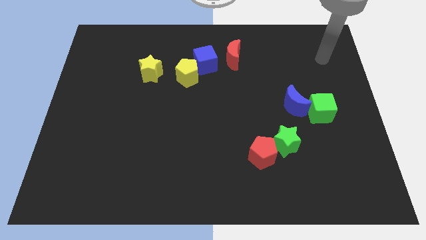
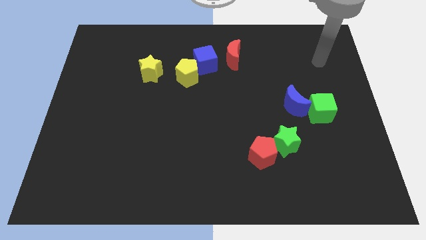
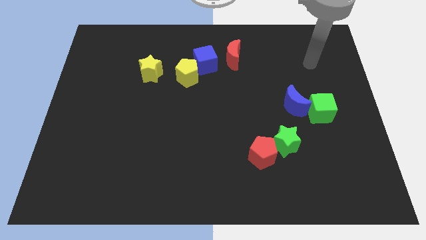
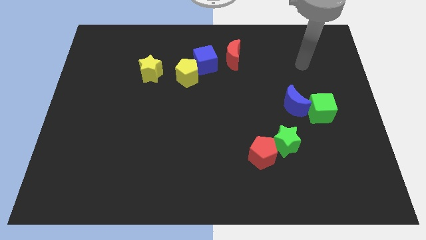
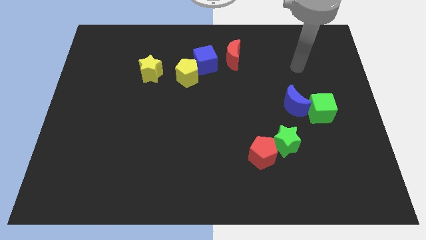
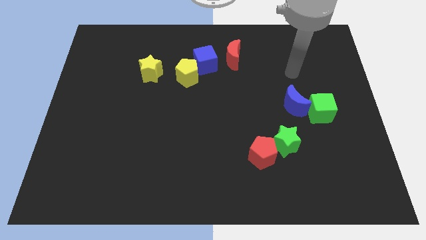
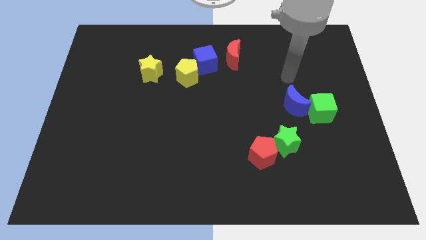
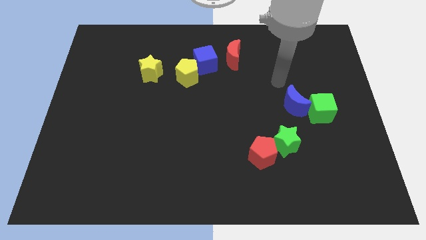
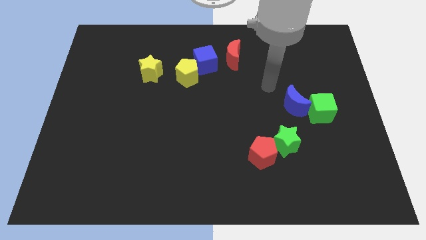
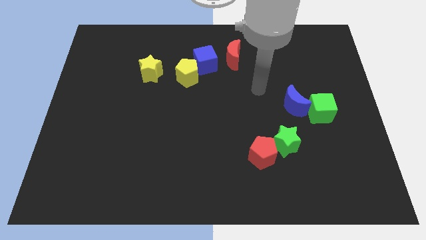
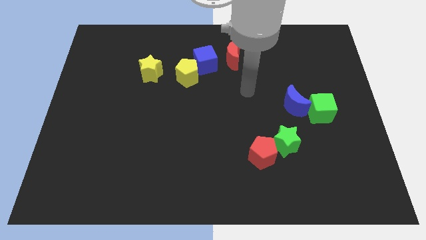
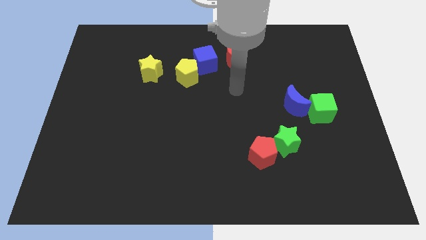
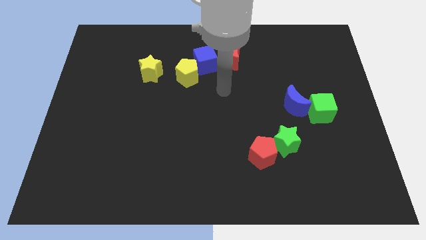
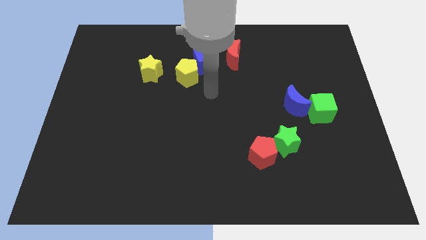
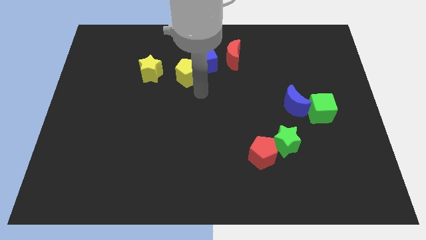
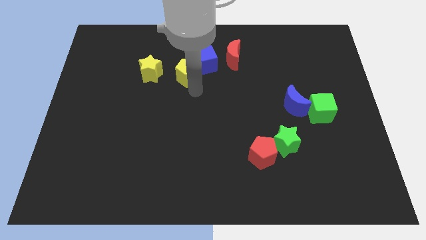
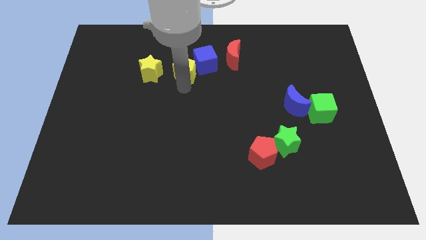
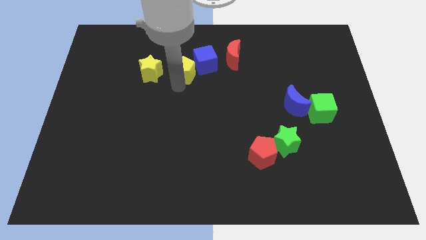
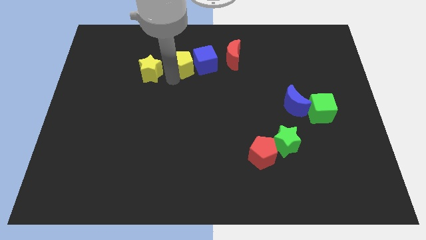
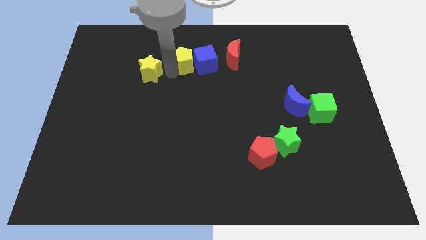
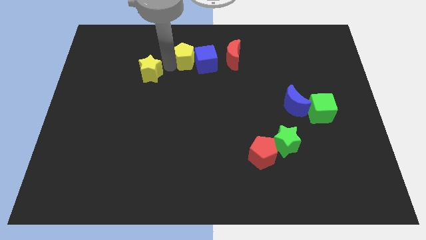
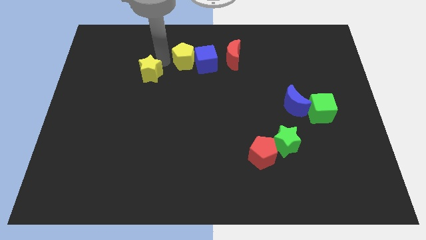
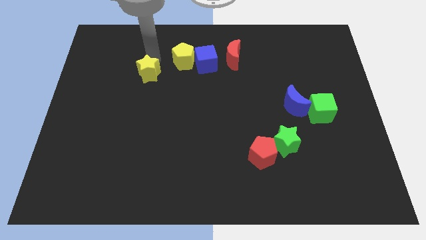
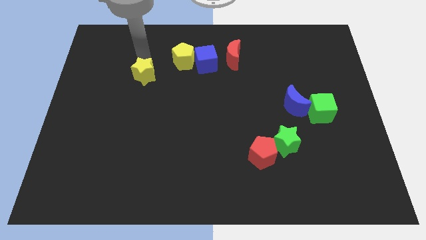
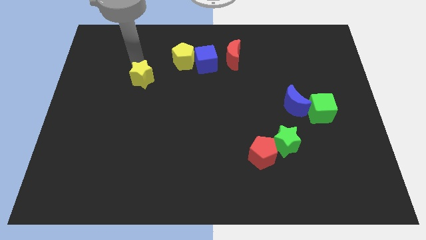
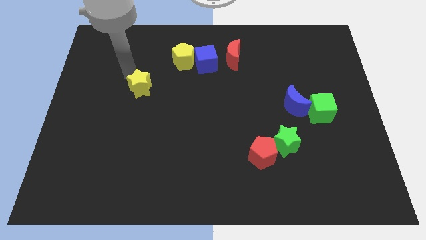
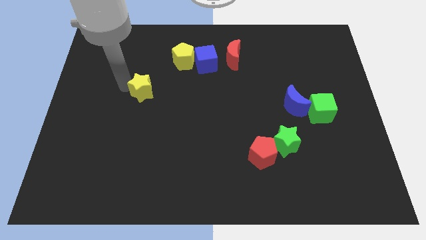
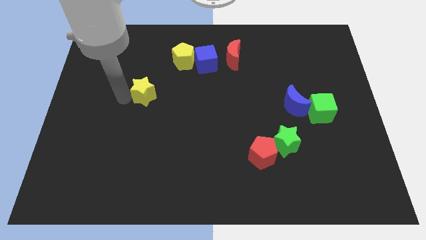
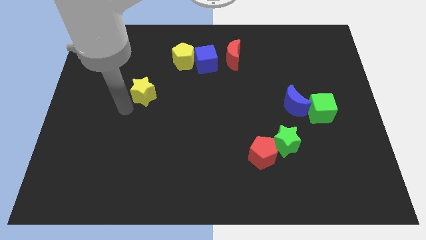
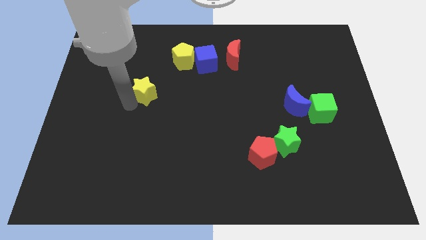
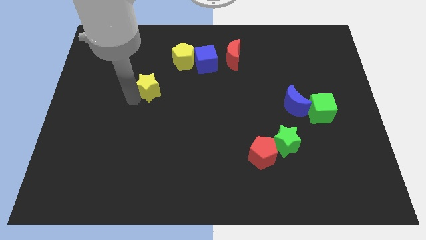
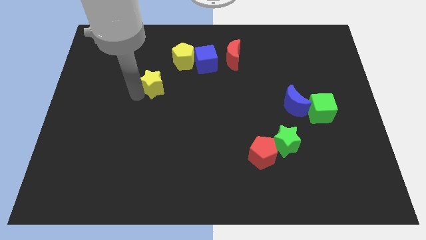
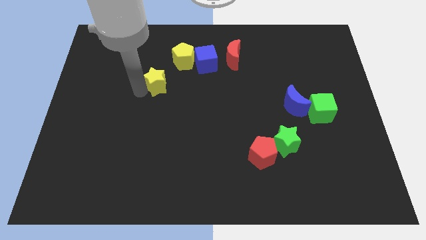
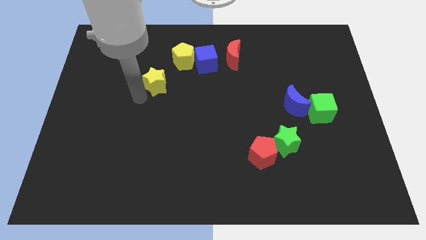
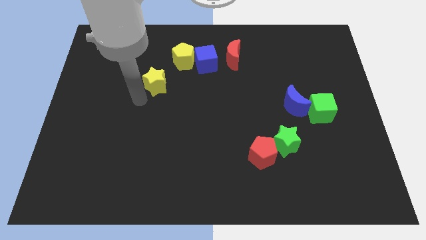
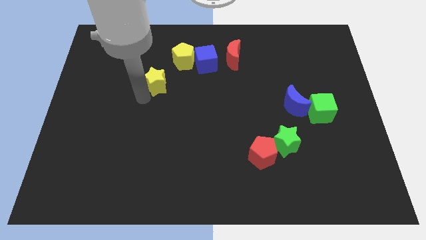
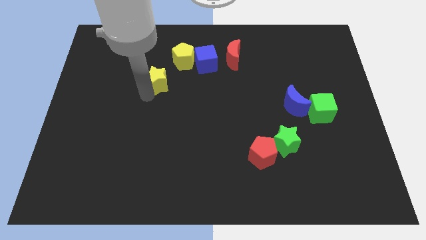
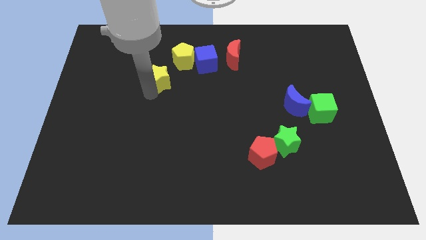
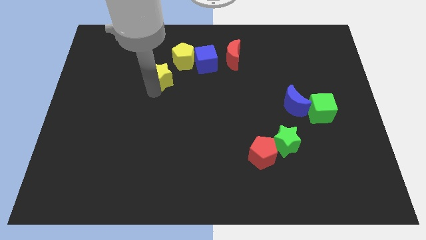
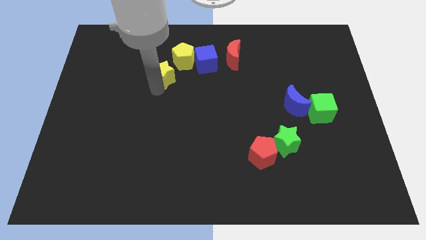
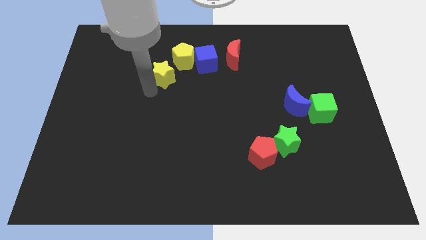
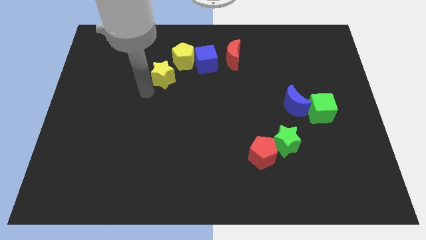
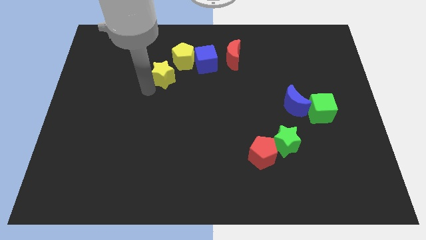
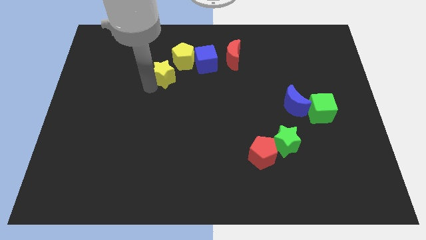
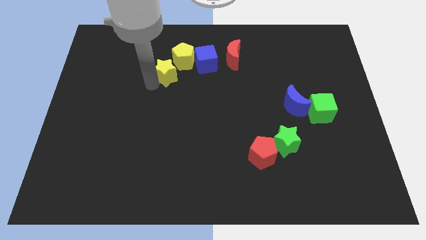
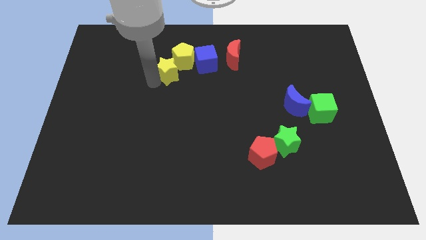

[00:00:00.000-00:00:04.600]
put the yellow star next to the yellow pentagon

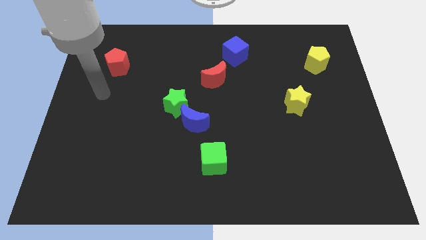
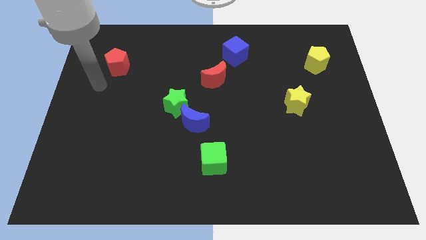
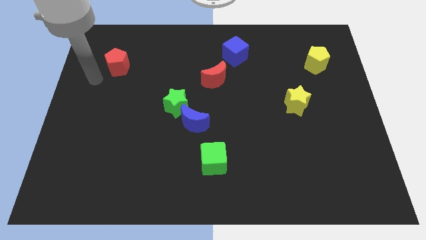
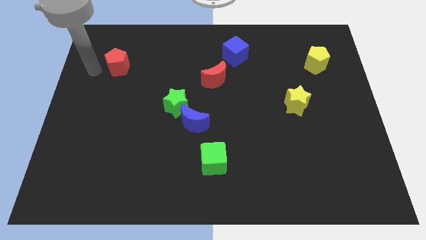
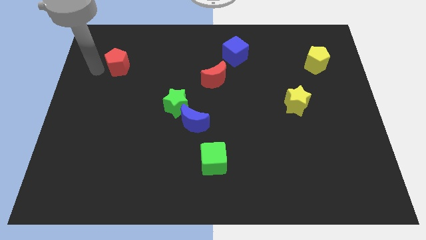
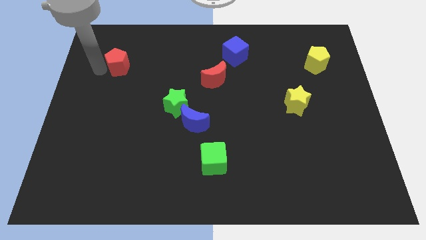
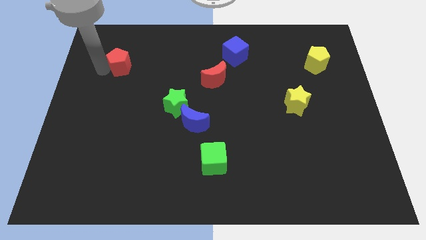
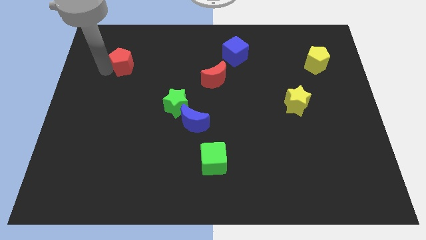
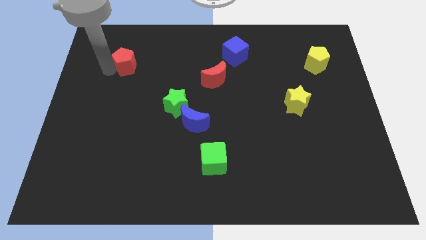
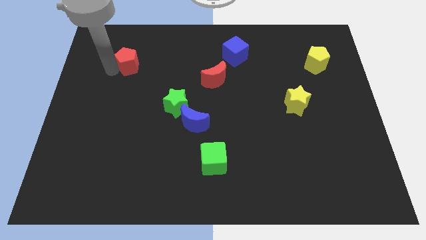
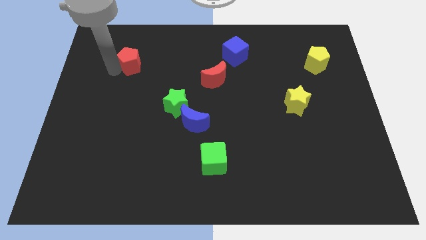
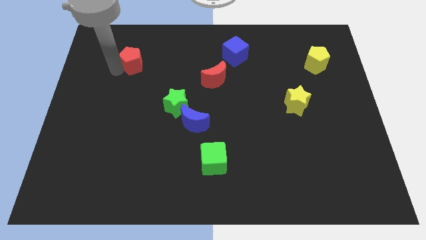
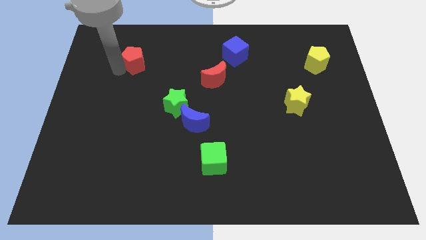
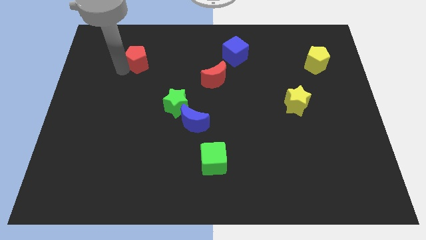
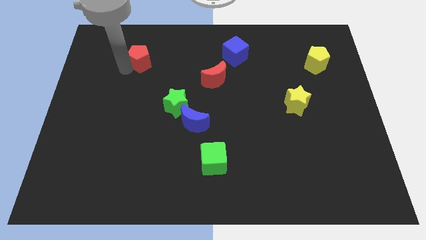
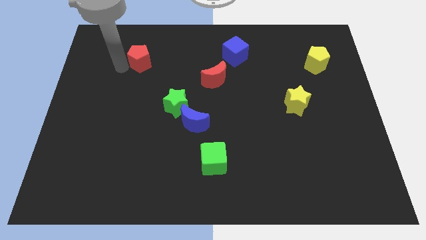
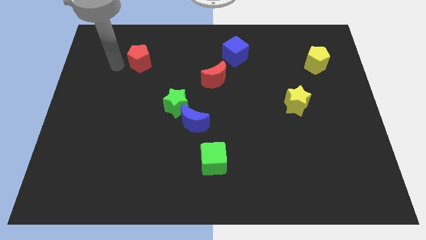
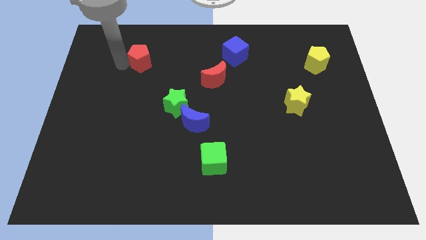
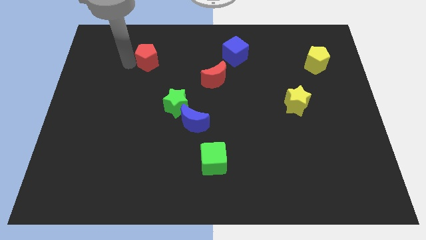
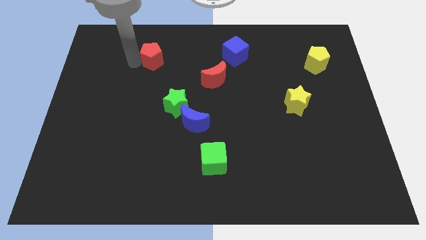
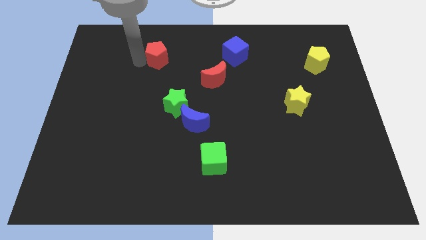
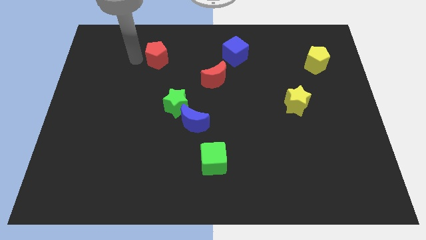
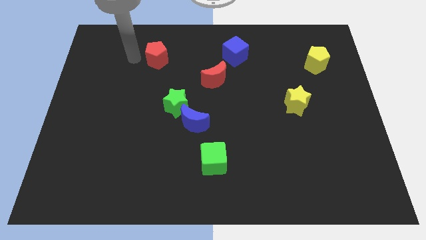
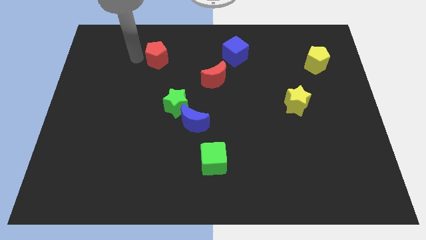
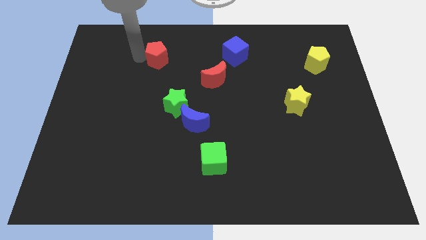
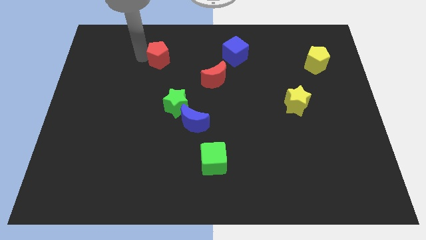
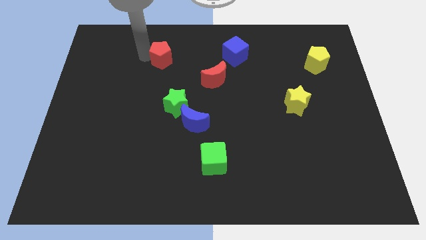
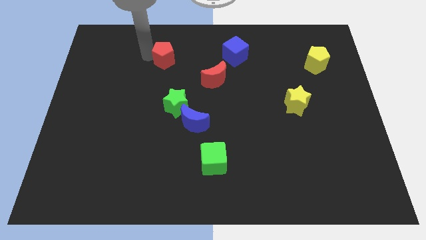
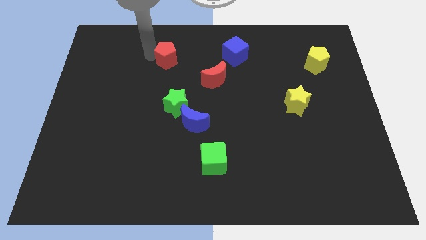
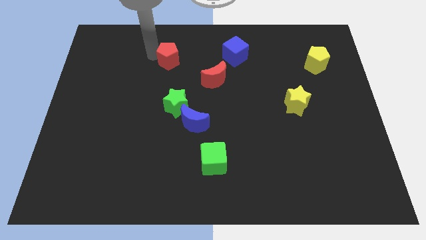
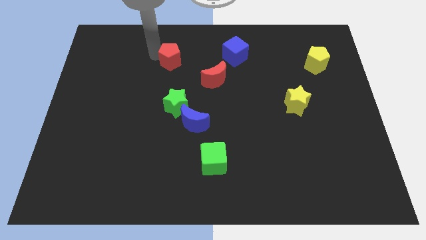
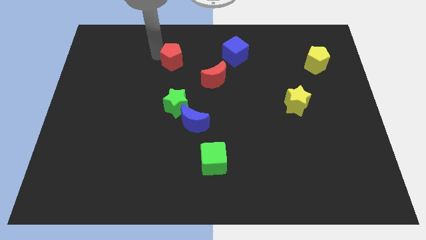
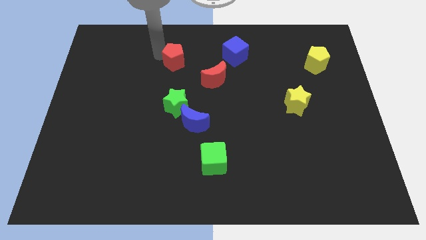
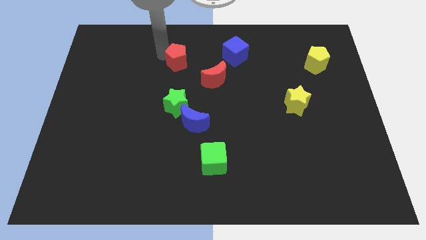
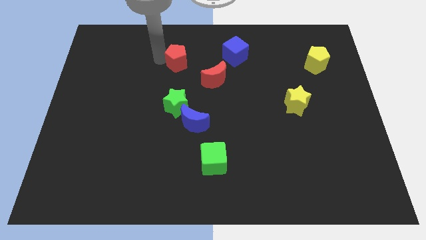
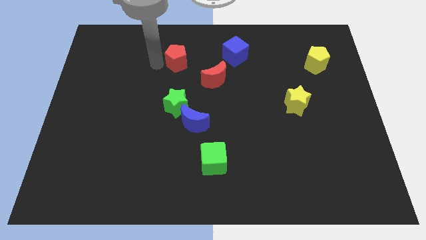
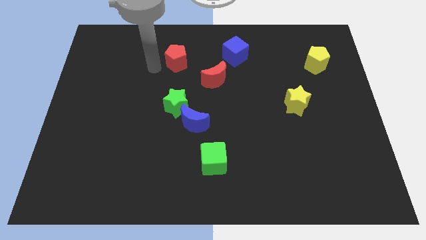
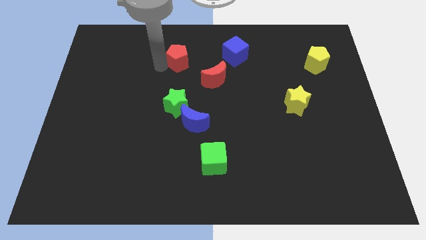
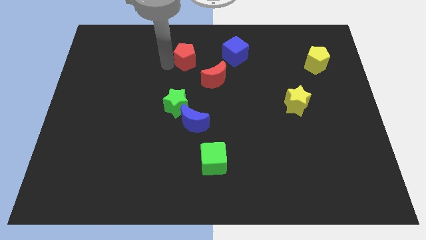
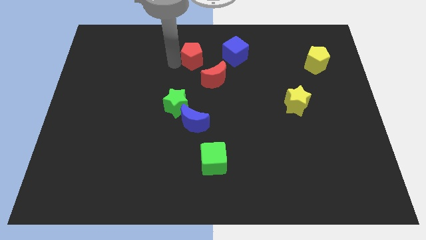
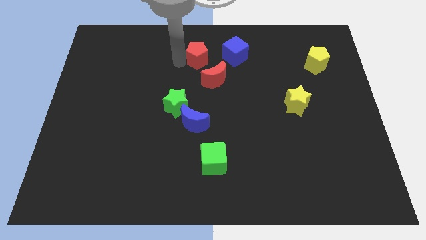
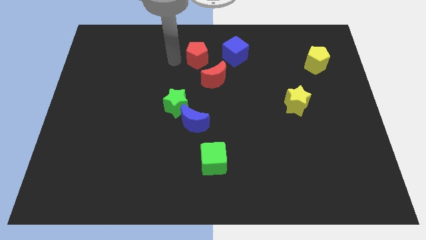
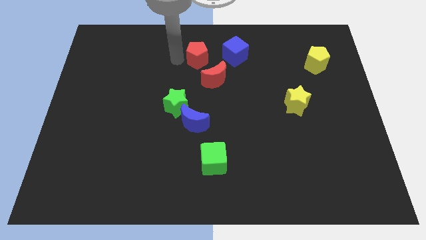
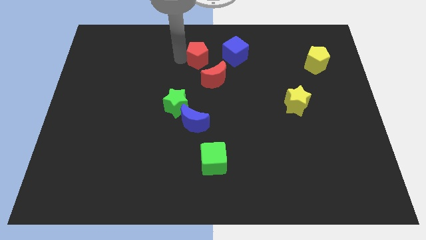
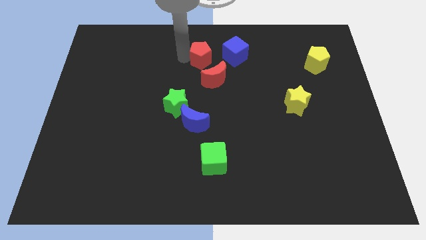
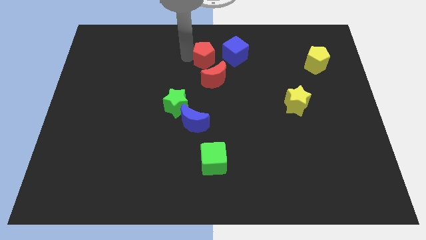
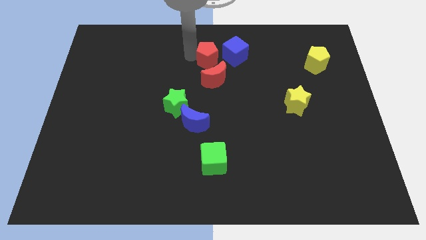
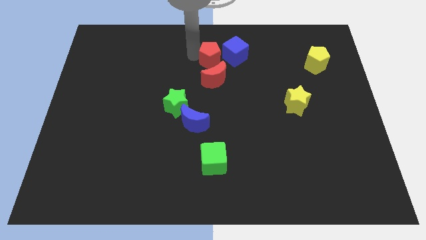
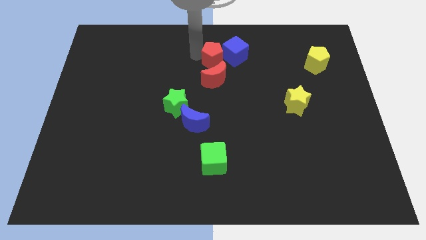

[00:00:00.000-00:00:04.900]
slide the red pentagon to the blue cube
